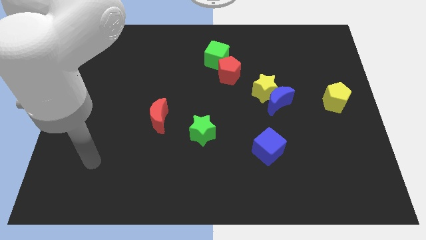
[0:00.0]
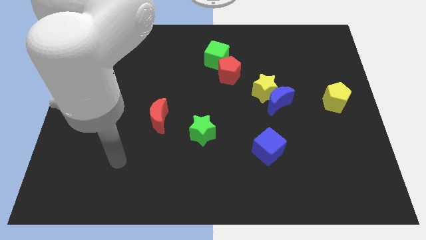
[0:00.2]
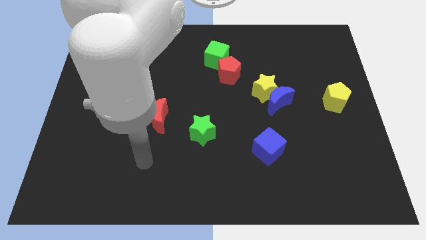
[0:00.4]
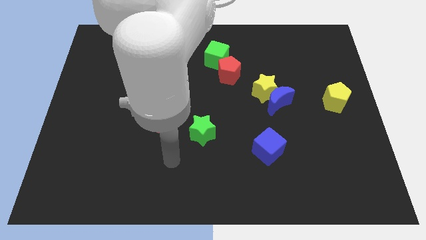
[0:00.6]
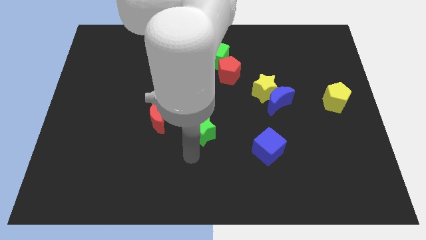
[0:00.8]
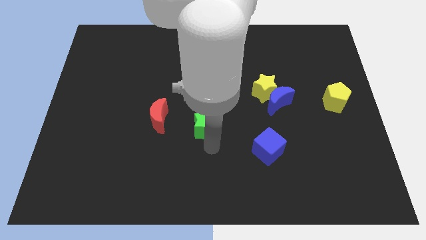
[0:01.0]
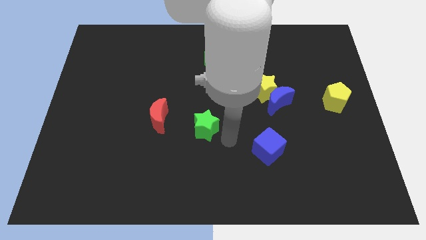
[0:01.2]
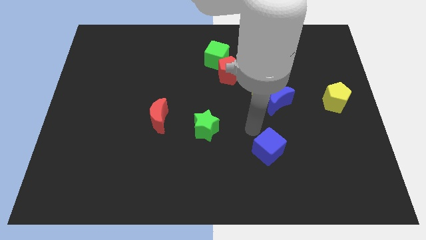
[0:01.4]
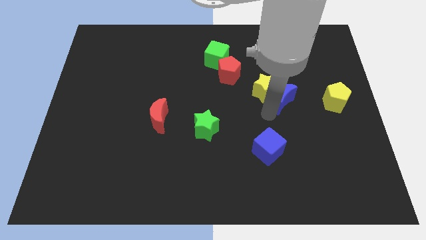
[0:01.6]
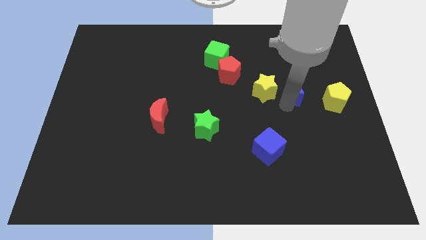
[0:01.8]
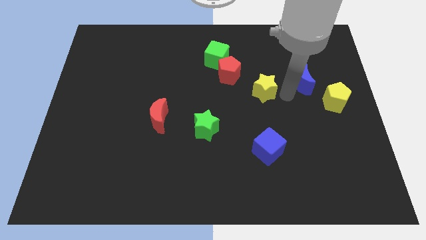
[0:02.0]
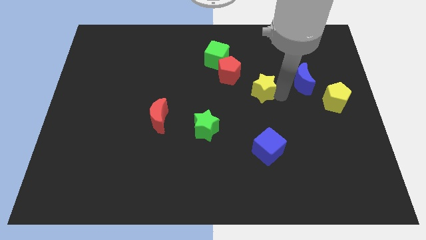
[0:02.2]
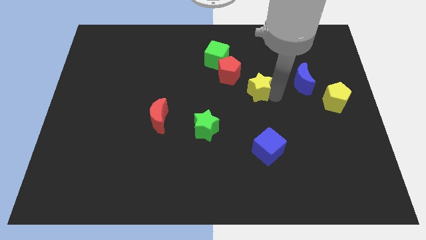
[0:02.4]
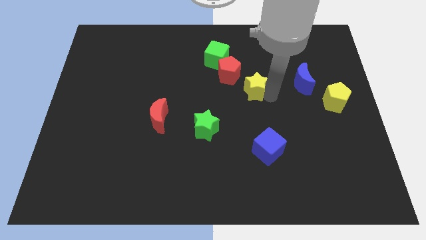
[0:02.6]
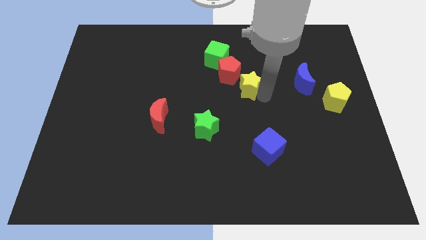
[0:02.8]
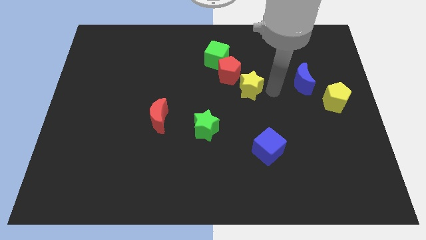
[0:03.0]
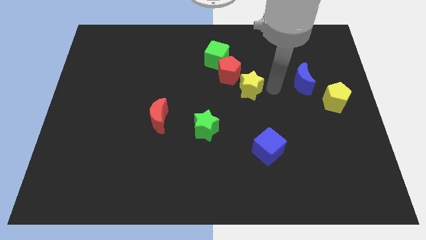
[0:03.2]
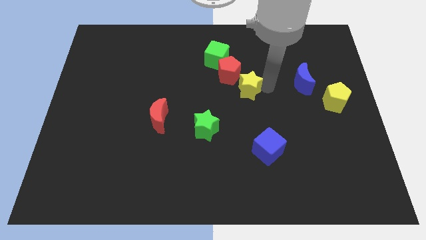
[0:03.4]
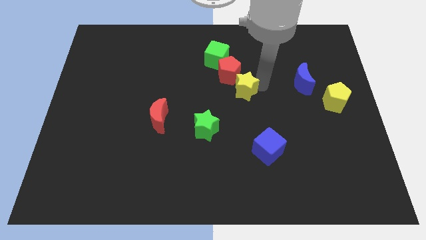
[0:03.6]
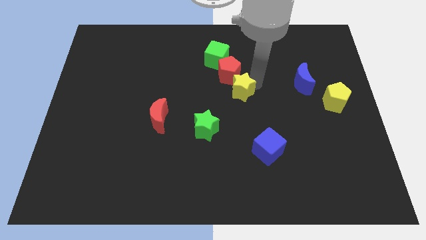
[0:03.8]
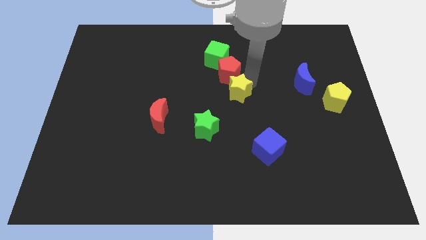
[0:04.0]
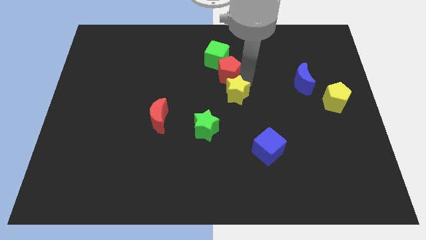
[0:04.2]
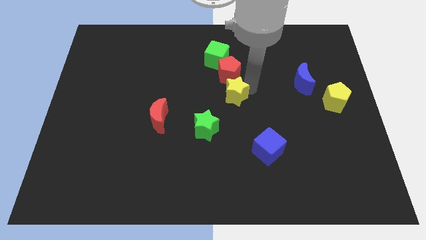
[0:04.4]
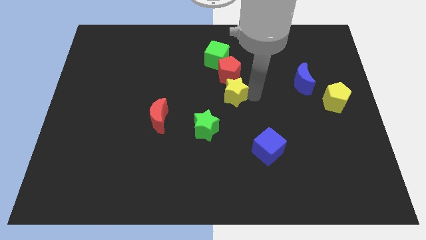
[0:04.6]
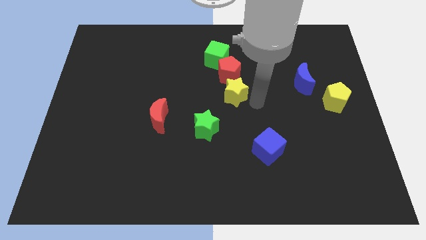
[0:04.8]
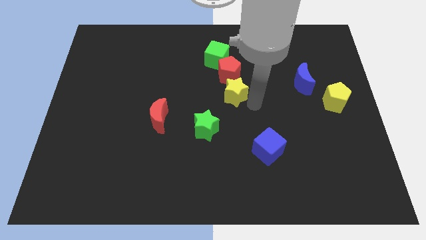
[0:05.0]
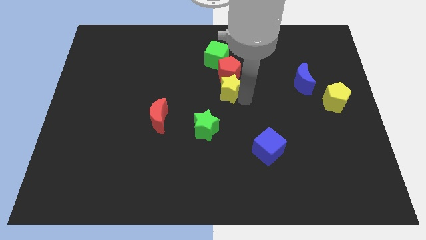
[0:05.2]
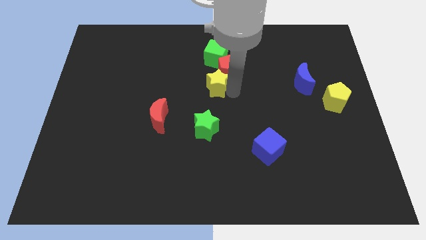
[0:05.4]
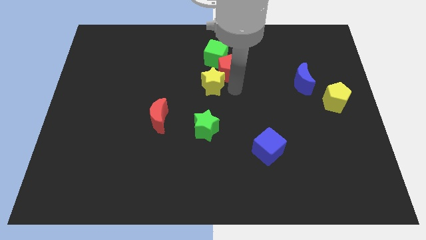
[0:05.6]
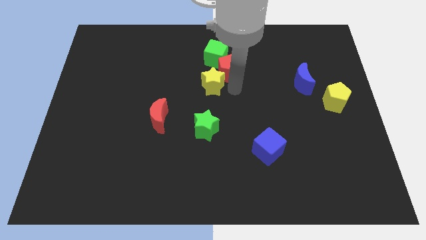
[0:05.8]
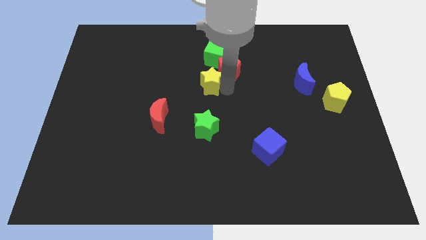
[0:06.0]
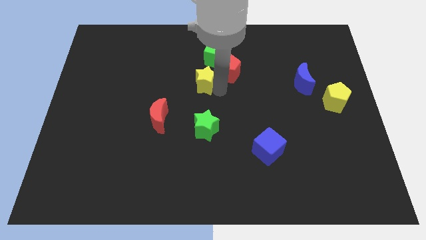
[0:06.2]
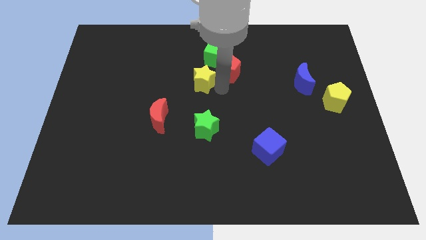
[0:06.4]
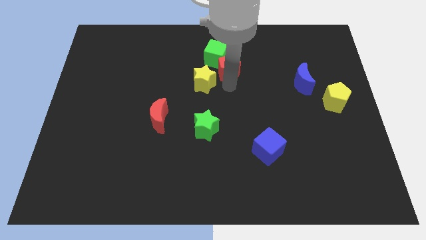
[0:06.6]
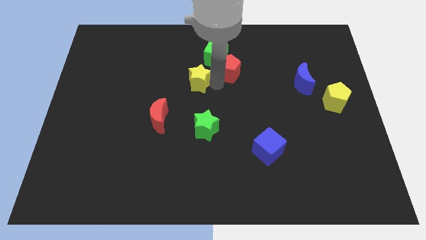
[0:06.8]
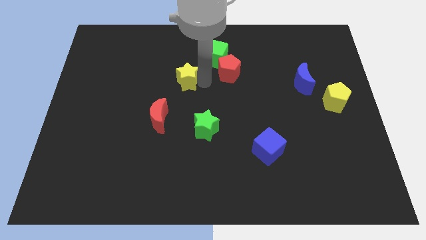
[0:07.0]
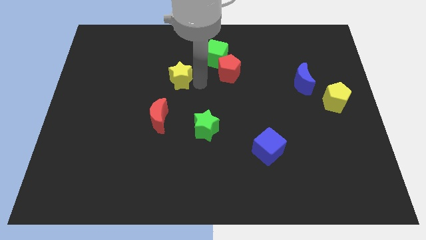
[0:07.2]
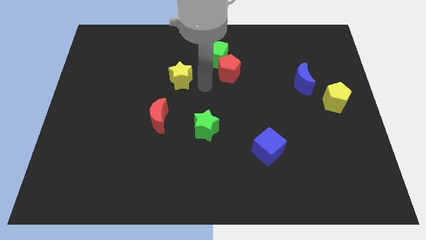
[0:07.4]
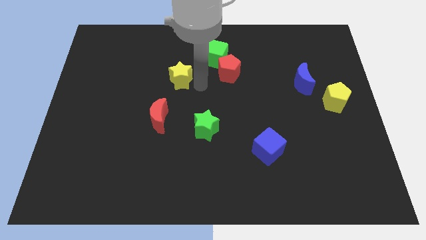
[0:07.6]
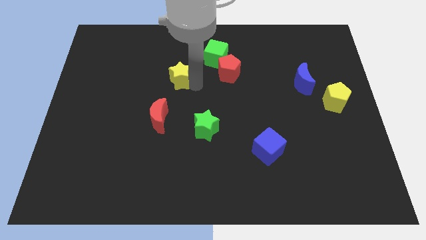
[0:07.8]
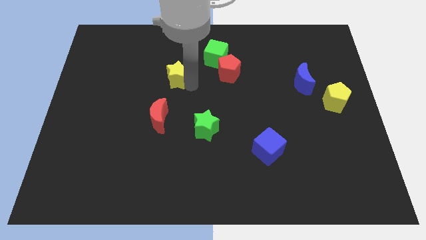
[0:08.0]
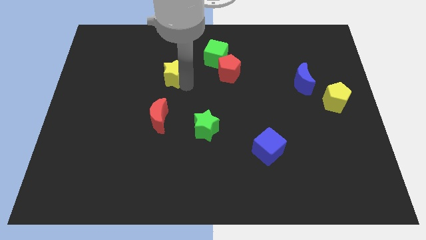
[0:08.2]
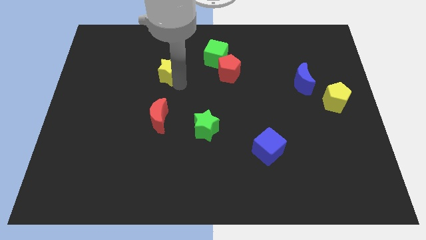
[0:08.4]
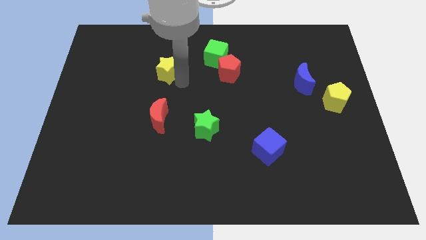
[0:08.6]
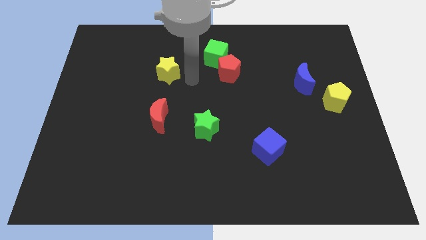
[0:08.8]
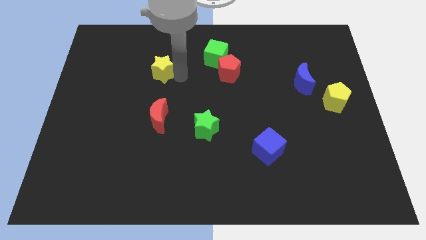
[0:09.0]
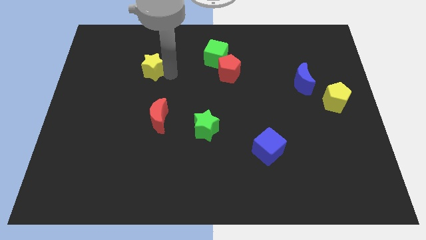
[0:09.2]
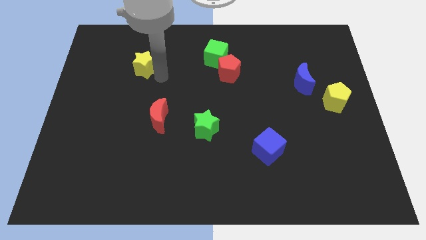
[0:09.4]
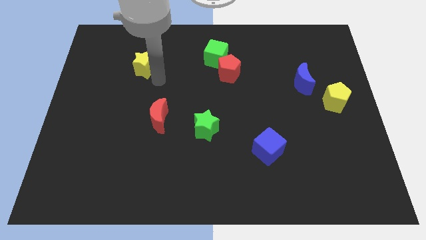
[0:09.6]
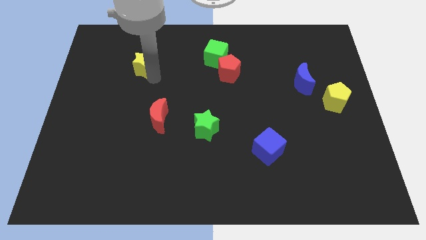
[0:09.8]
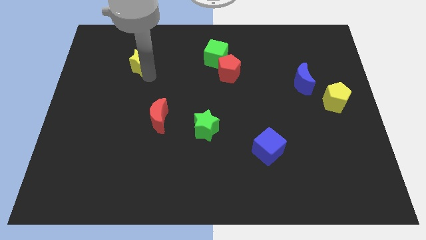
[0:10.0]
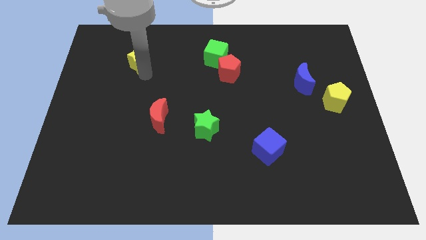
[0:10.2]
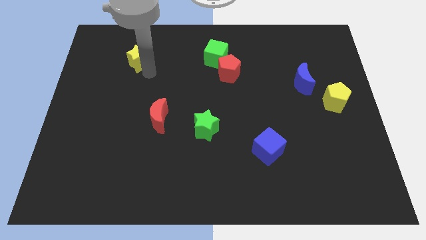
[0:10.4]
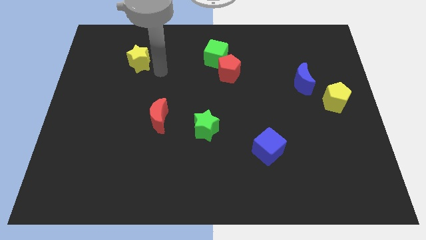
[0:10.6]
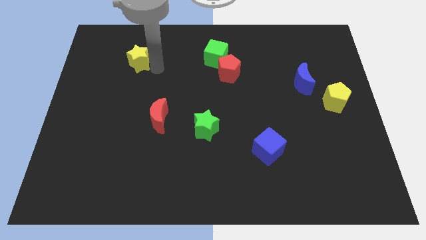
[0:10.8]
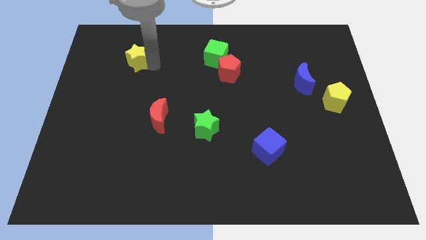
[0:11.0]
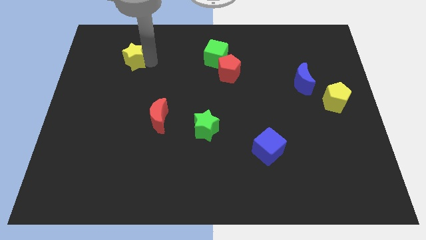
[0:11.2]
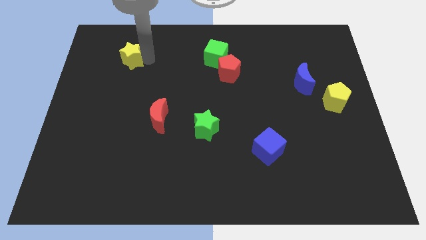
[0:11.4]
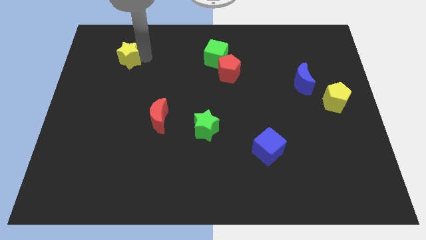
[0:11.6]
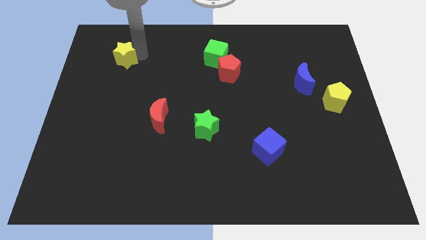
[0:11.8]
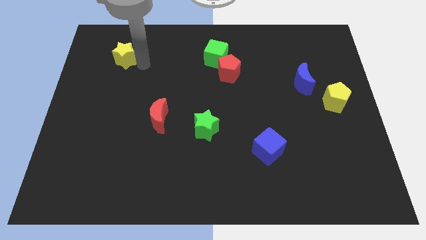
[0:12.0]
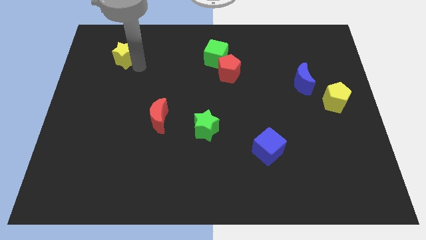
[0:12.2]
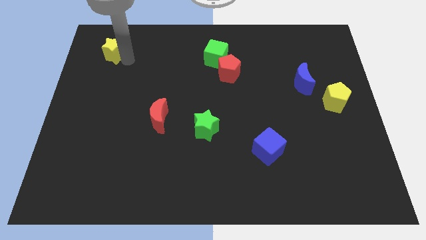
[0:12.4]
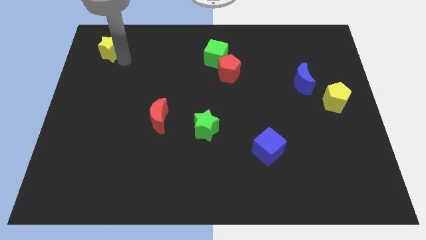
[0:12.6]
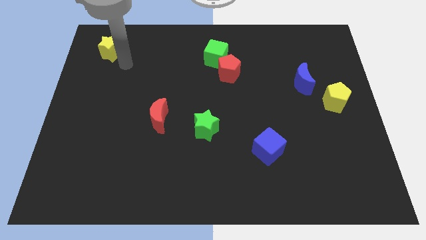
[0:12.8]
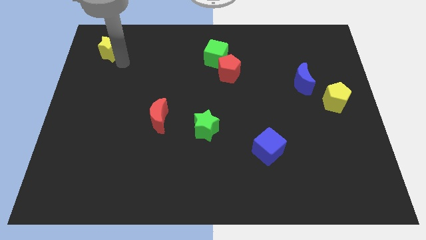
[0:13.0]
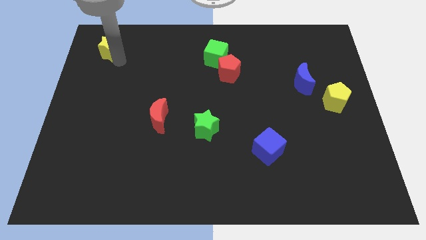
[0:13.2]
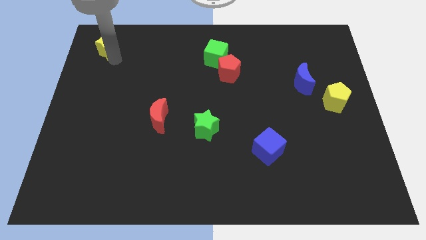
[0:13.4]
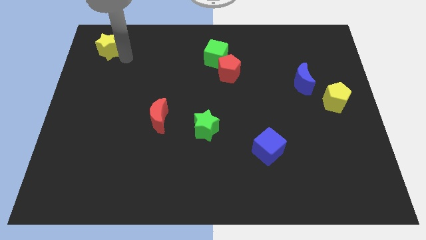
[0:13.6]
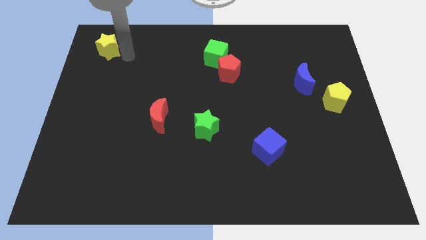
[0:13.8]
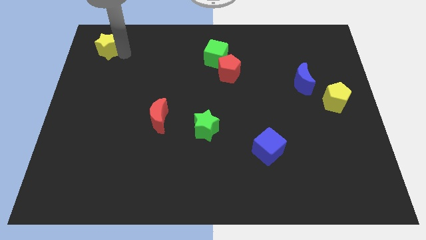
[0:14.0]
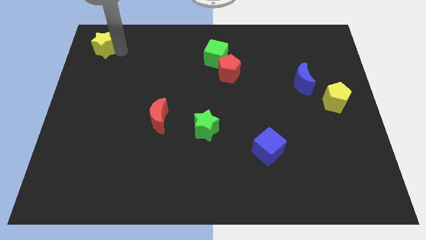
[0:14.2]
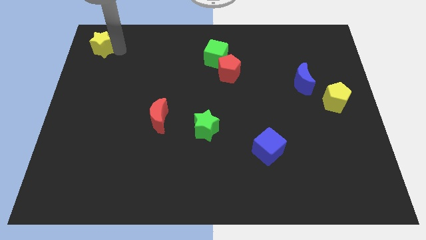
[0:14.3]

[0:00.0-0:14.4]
move the yellow star to the top left corner
